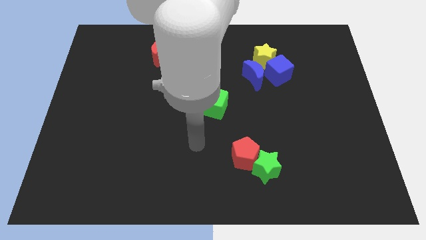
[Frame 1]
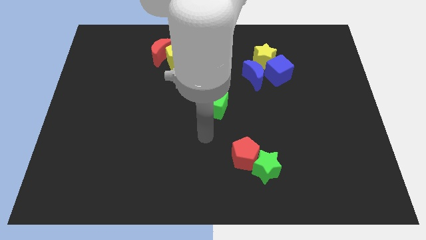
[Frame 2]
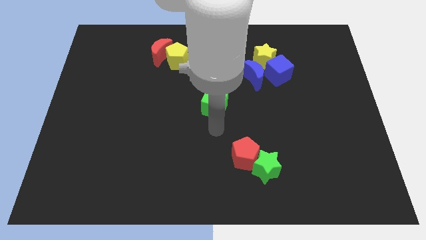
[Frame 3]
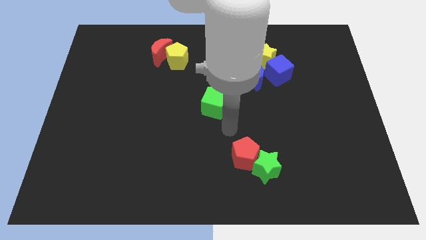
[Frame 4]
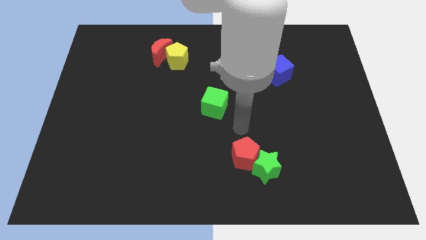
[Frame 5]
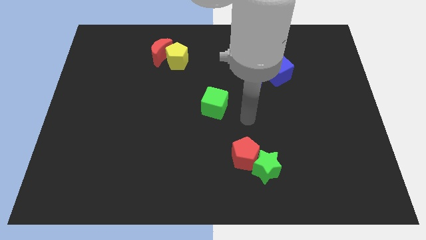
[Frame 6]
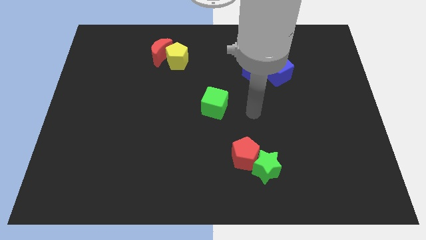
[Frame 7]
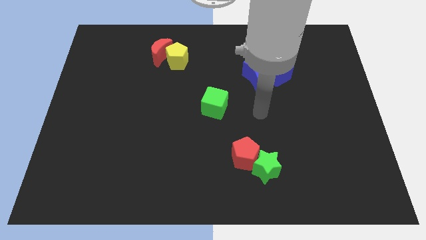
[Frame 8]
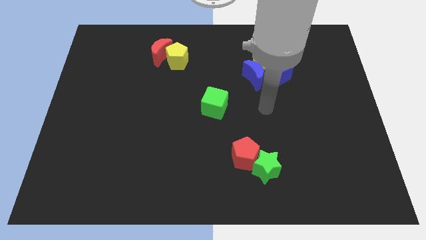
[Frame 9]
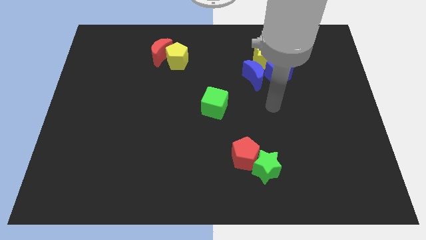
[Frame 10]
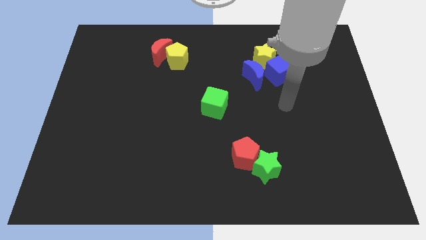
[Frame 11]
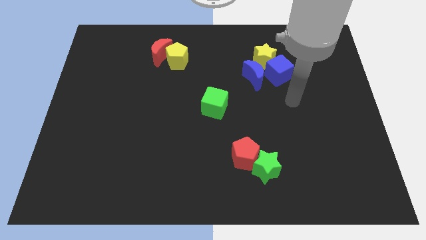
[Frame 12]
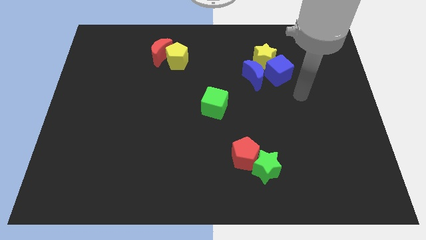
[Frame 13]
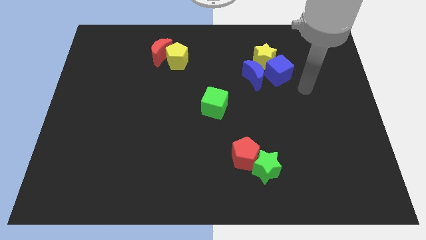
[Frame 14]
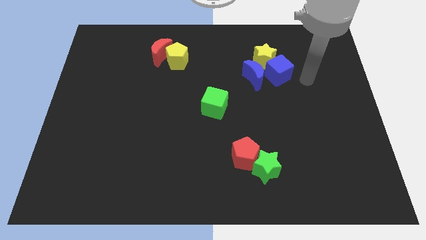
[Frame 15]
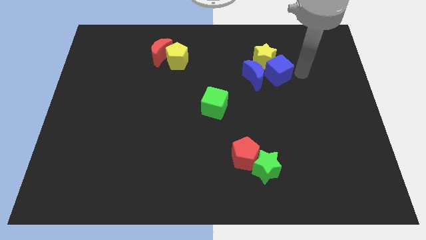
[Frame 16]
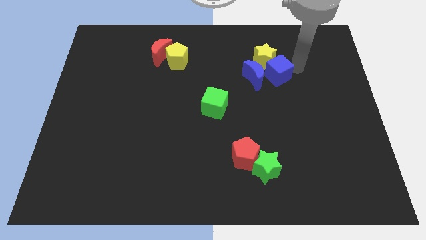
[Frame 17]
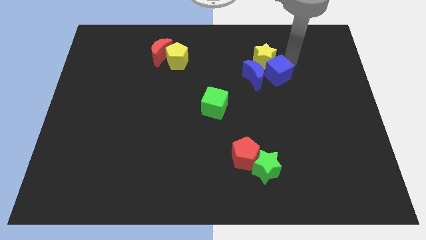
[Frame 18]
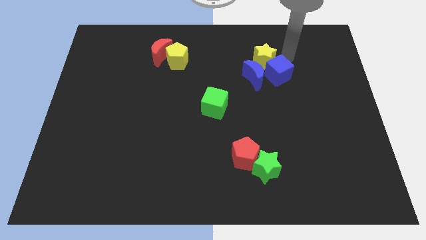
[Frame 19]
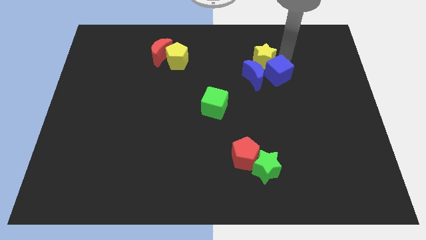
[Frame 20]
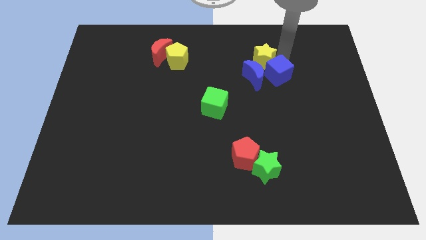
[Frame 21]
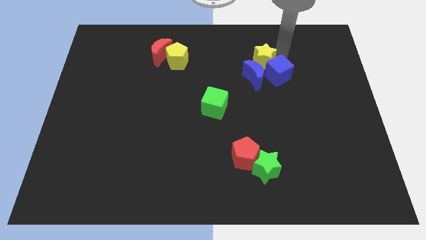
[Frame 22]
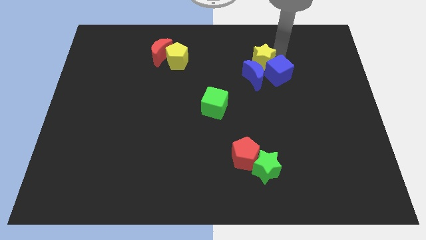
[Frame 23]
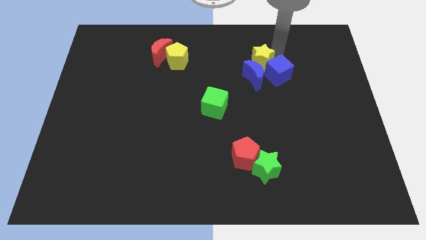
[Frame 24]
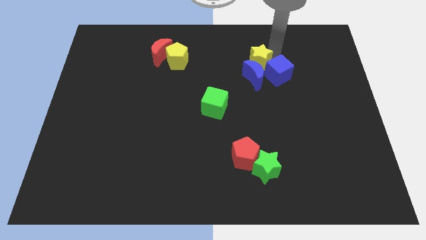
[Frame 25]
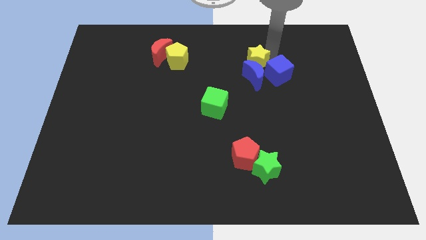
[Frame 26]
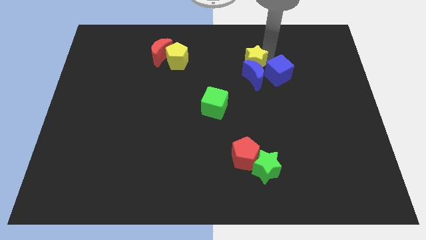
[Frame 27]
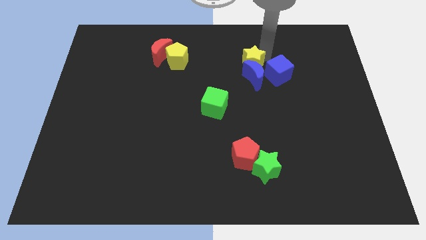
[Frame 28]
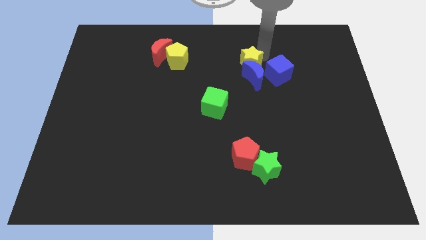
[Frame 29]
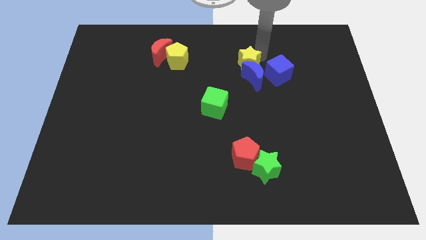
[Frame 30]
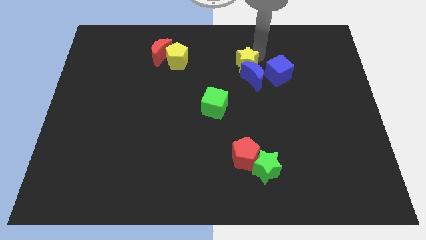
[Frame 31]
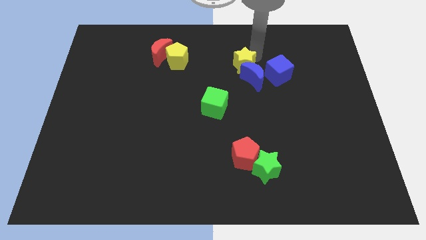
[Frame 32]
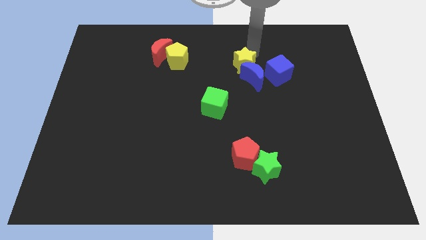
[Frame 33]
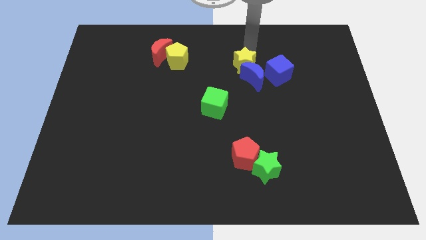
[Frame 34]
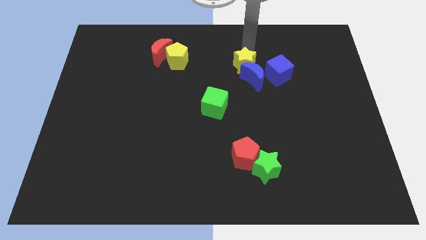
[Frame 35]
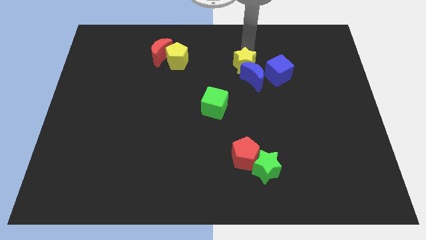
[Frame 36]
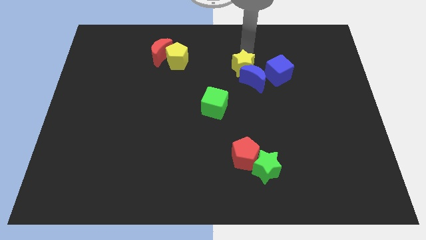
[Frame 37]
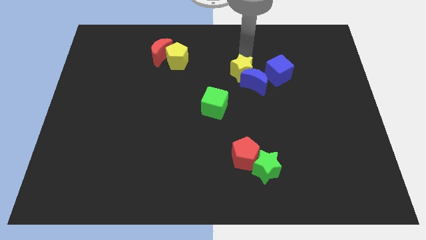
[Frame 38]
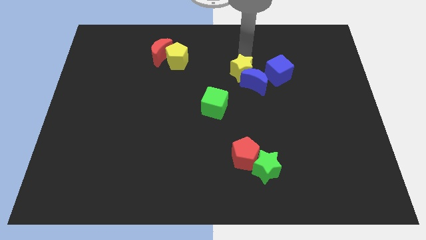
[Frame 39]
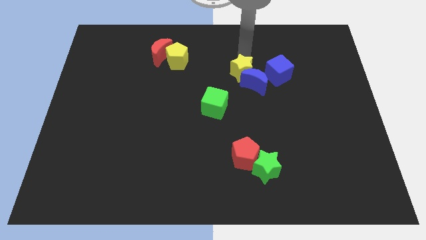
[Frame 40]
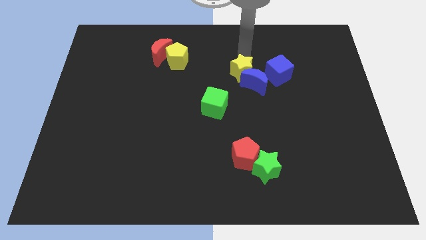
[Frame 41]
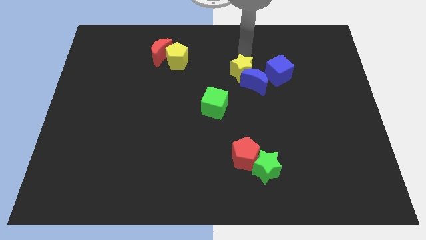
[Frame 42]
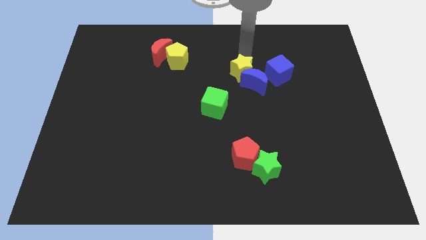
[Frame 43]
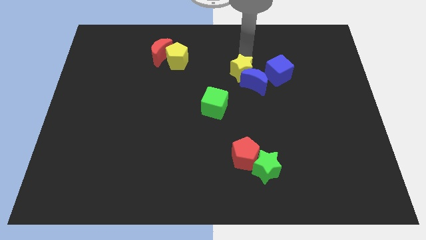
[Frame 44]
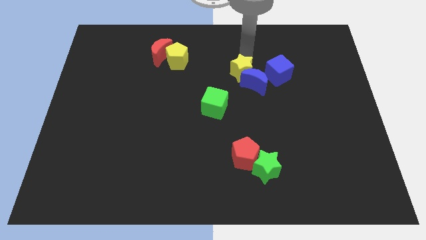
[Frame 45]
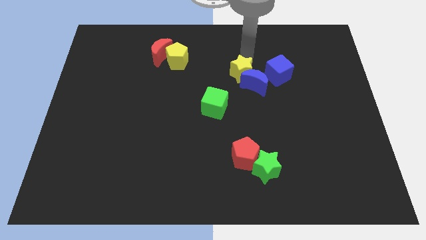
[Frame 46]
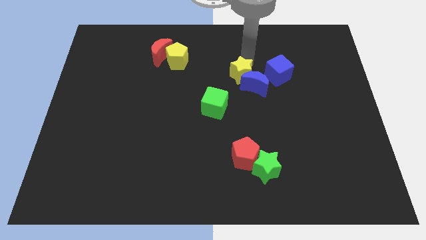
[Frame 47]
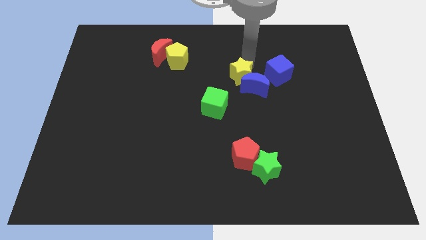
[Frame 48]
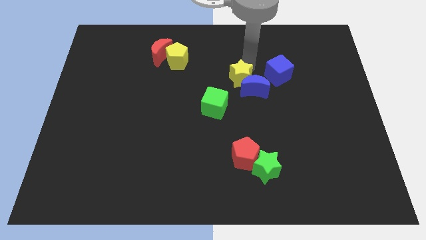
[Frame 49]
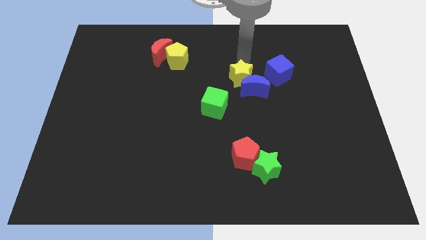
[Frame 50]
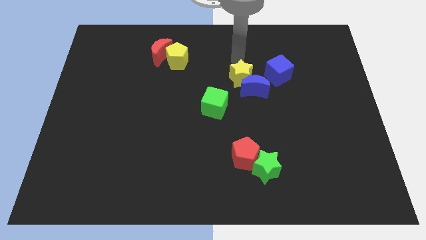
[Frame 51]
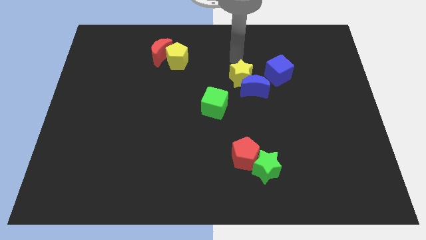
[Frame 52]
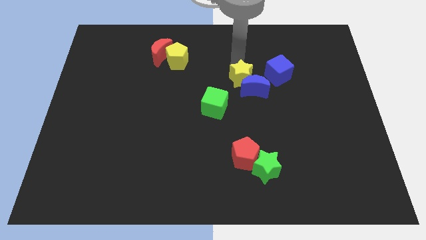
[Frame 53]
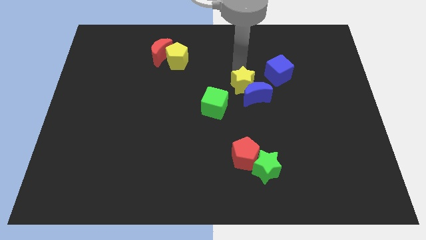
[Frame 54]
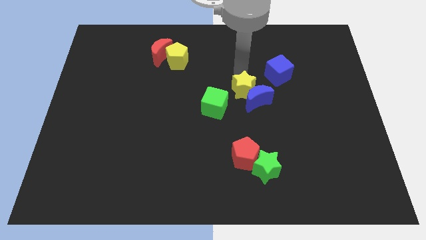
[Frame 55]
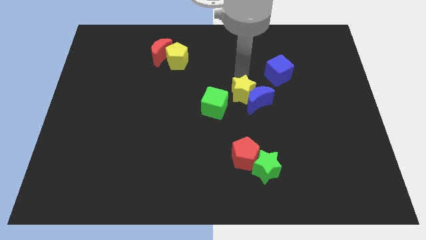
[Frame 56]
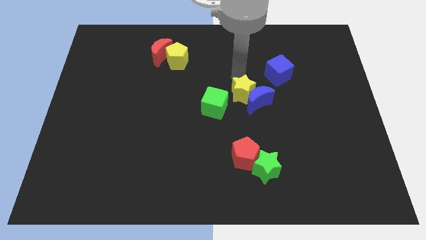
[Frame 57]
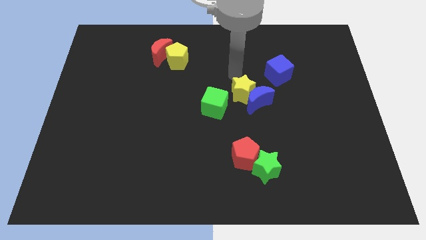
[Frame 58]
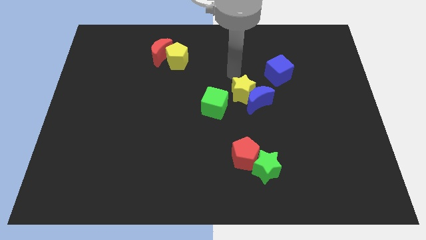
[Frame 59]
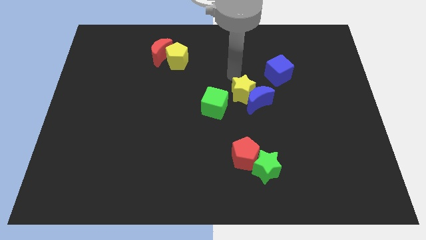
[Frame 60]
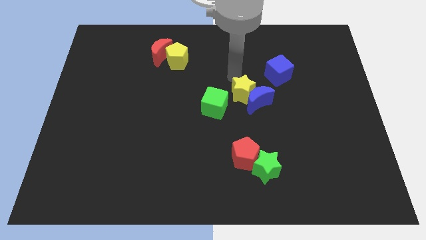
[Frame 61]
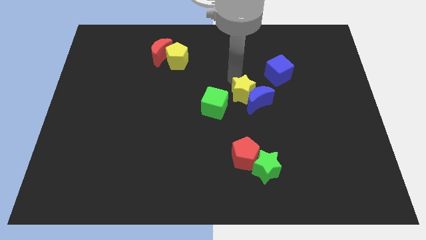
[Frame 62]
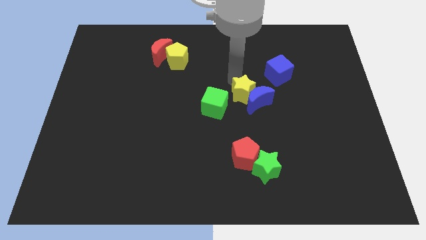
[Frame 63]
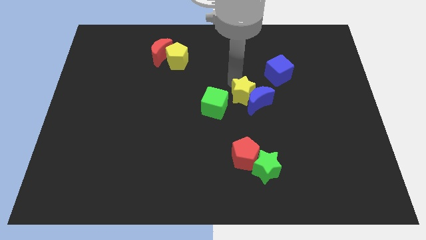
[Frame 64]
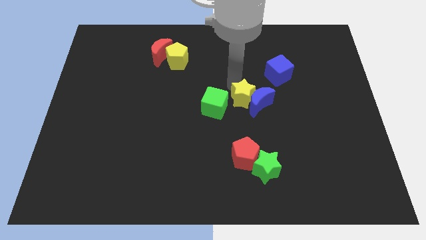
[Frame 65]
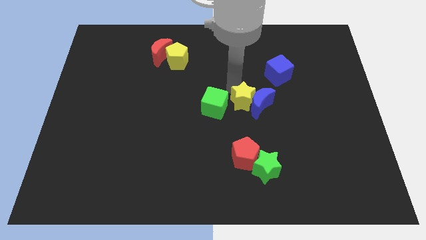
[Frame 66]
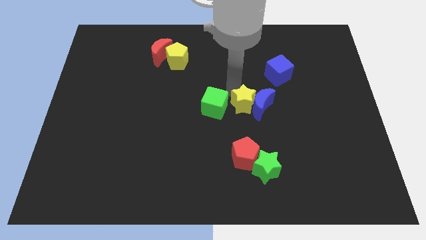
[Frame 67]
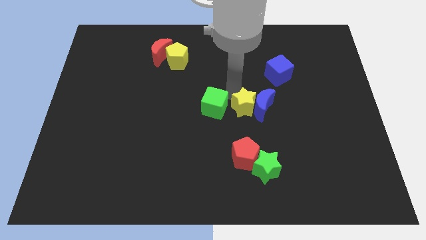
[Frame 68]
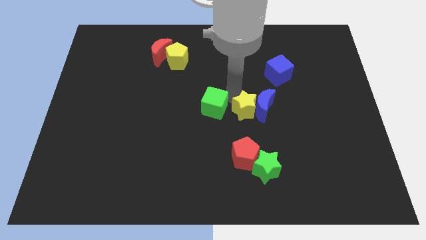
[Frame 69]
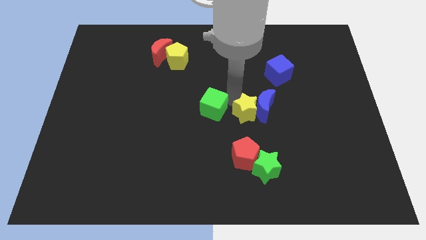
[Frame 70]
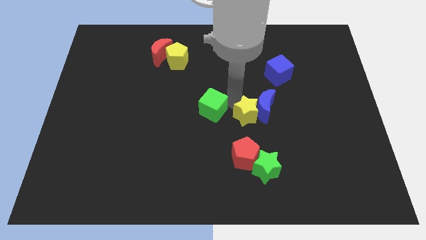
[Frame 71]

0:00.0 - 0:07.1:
move the yellow star above the green star

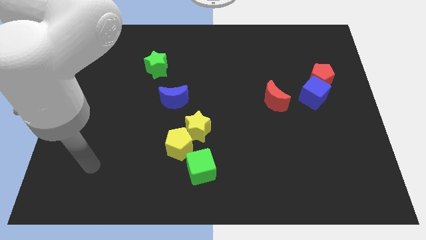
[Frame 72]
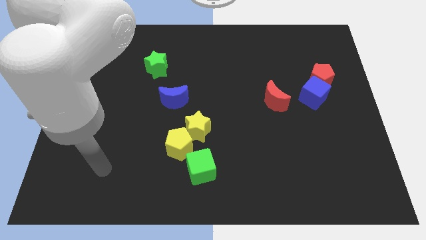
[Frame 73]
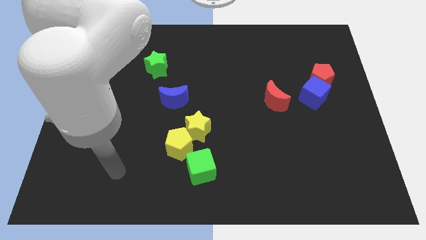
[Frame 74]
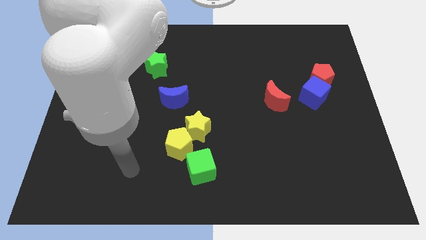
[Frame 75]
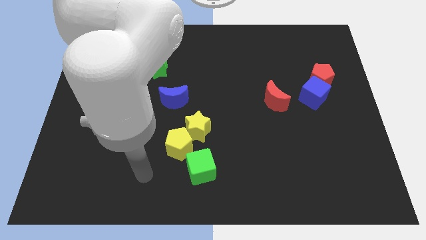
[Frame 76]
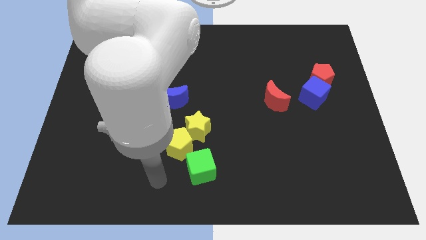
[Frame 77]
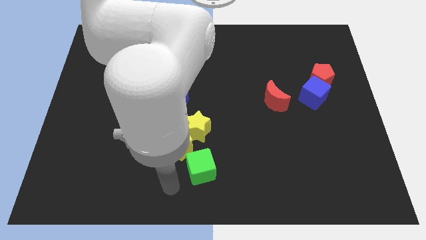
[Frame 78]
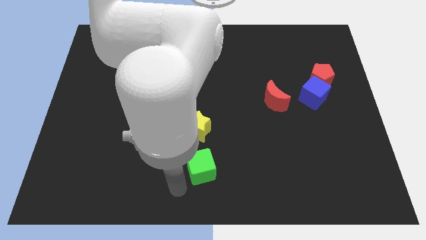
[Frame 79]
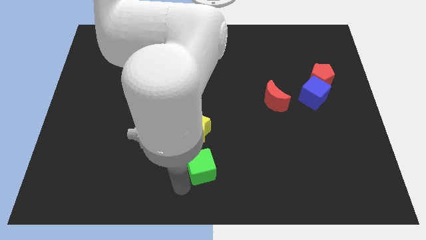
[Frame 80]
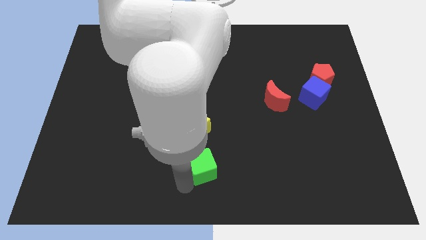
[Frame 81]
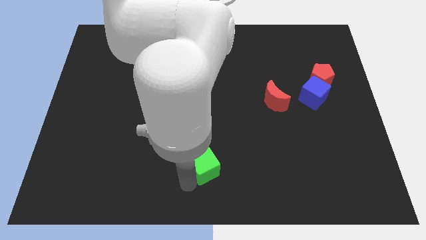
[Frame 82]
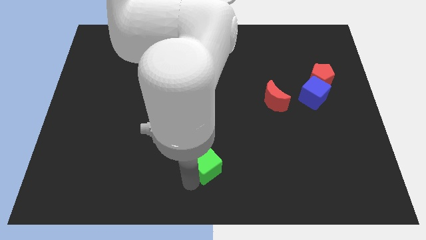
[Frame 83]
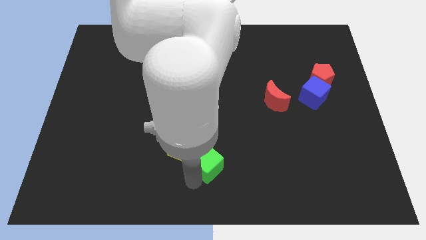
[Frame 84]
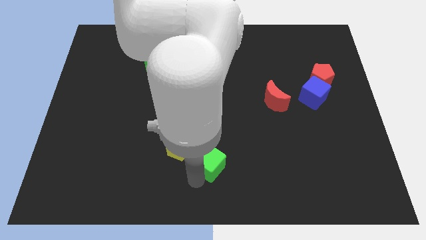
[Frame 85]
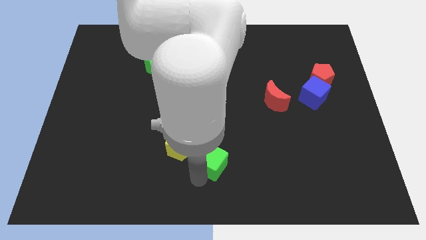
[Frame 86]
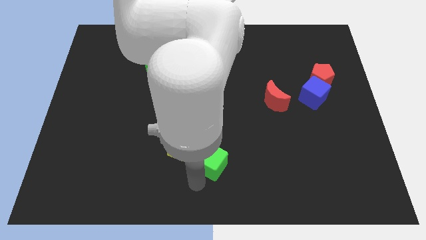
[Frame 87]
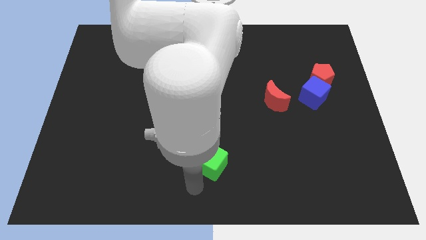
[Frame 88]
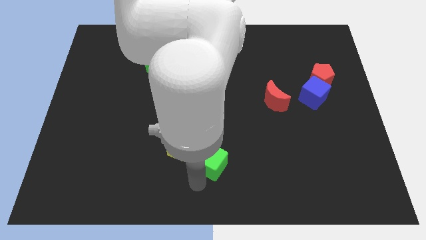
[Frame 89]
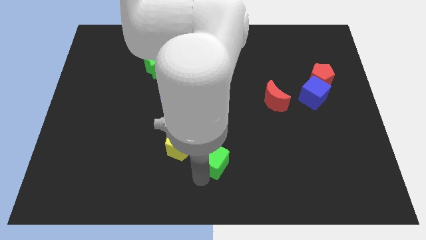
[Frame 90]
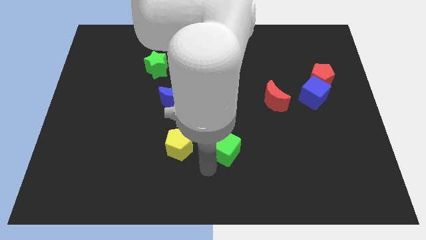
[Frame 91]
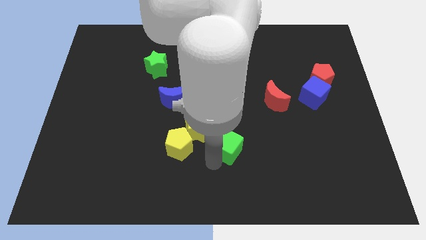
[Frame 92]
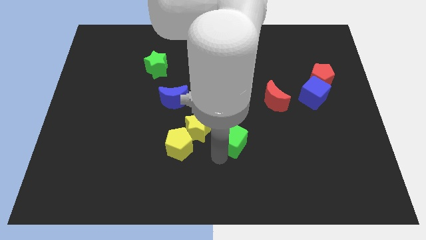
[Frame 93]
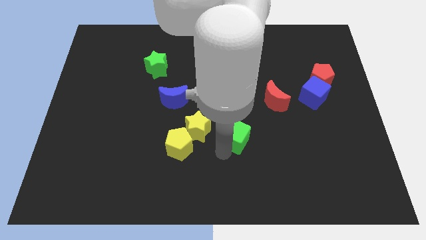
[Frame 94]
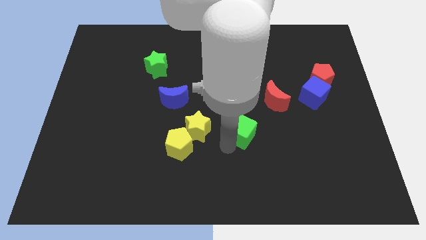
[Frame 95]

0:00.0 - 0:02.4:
move the green cube to the bottom left side of the red moon
